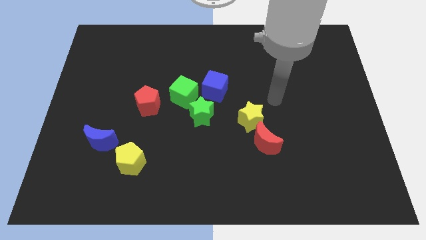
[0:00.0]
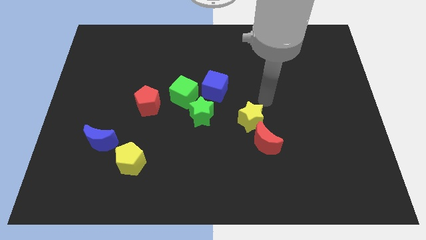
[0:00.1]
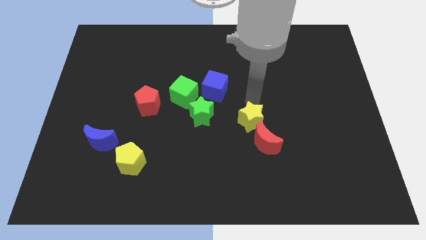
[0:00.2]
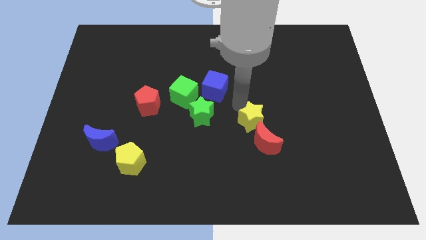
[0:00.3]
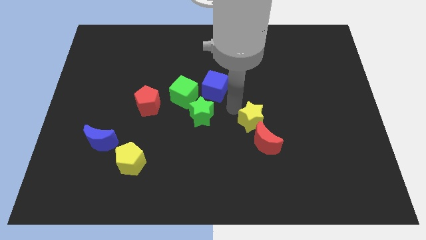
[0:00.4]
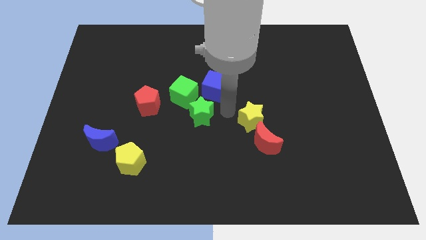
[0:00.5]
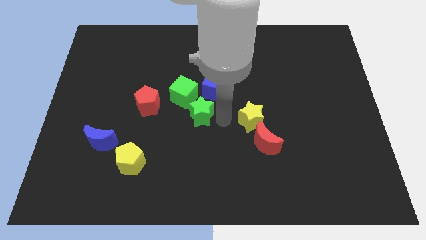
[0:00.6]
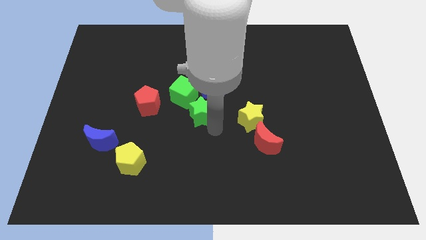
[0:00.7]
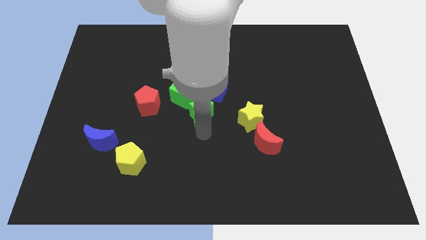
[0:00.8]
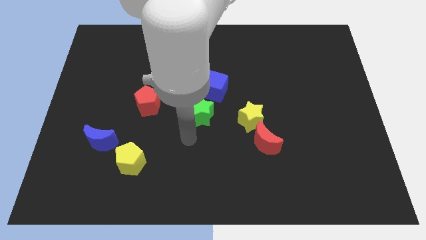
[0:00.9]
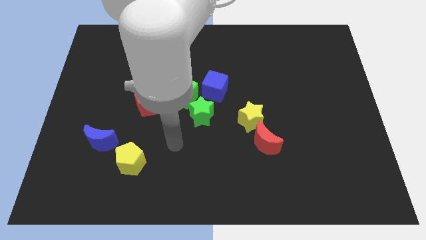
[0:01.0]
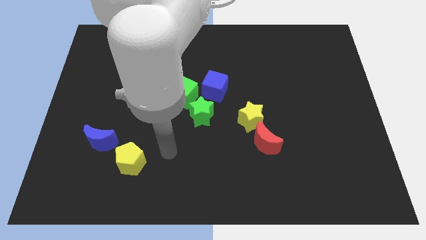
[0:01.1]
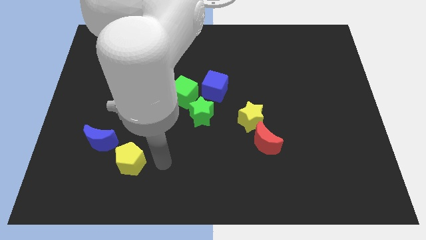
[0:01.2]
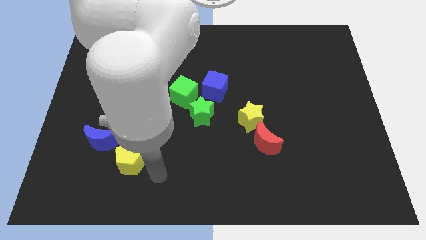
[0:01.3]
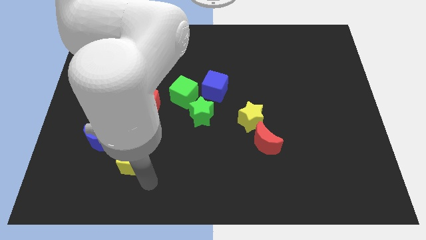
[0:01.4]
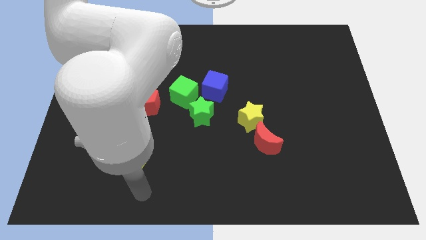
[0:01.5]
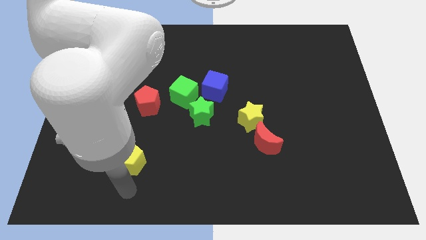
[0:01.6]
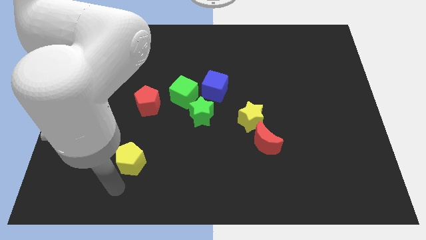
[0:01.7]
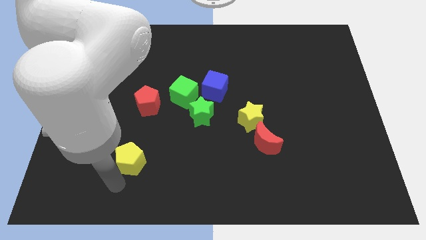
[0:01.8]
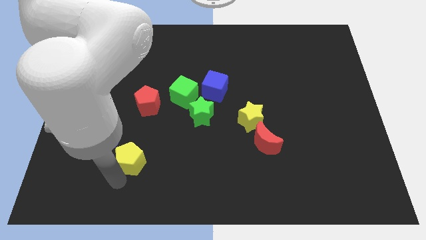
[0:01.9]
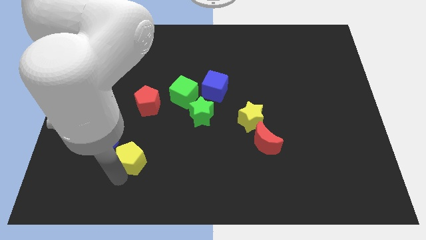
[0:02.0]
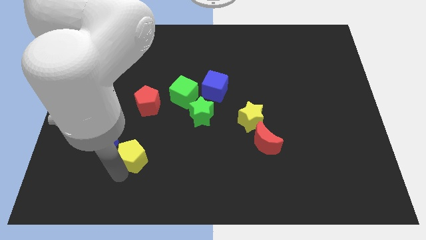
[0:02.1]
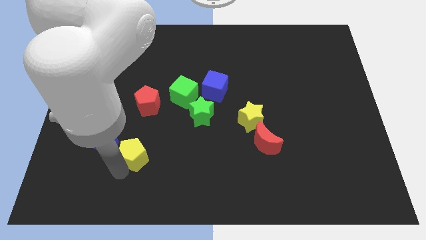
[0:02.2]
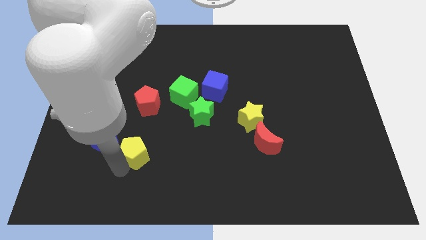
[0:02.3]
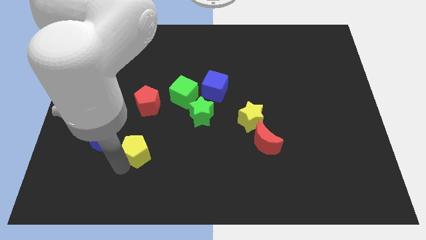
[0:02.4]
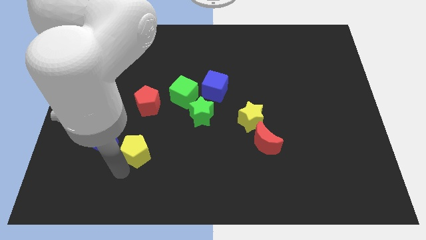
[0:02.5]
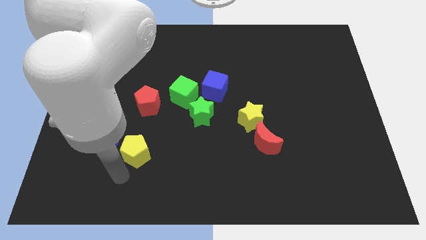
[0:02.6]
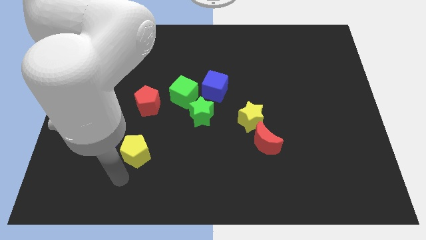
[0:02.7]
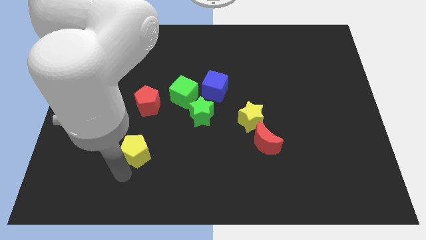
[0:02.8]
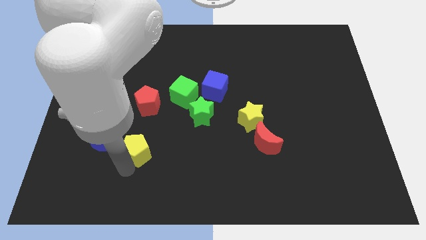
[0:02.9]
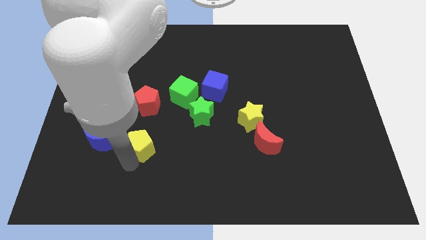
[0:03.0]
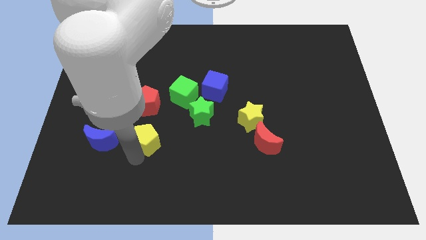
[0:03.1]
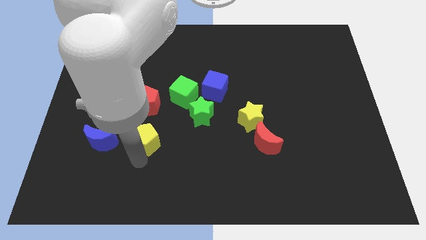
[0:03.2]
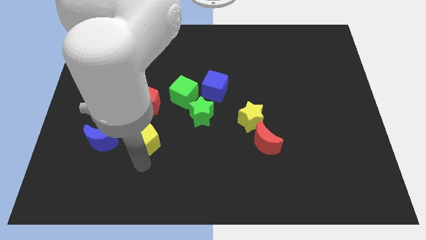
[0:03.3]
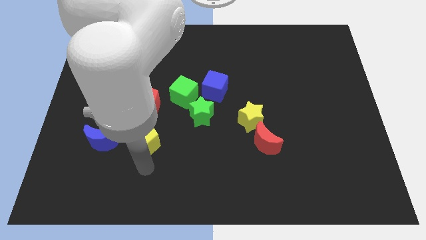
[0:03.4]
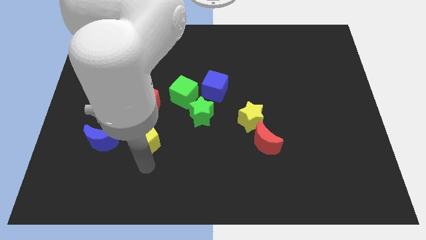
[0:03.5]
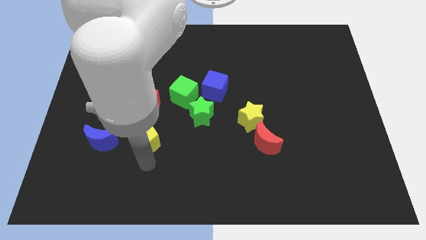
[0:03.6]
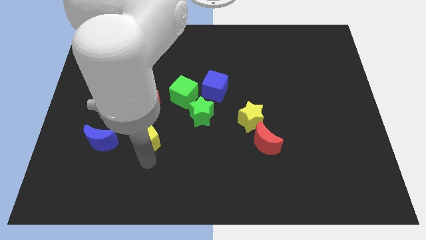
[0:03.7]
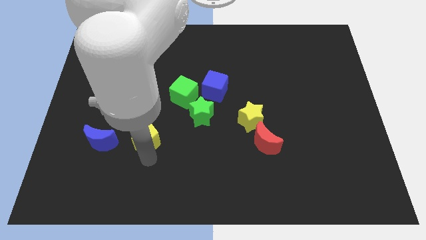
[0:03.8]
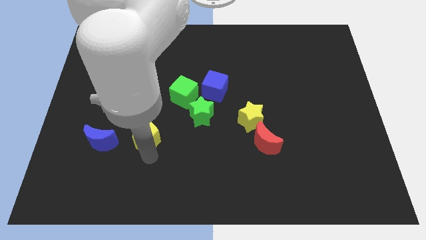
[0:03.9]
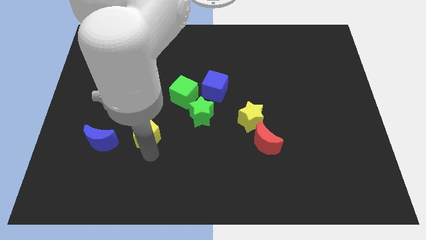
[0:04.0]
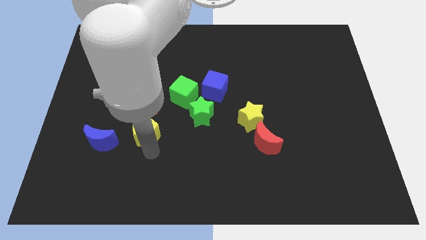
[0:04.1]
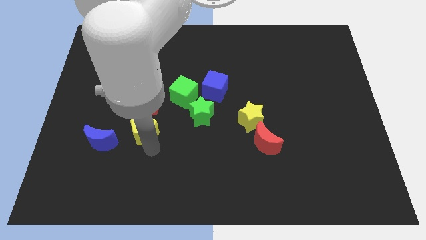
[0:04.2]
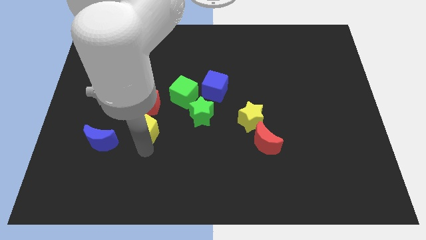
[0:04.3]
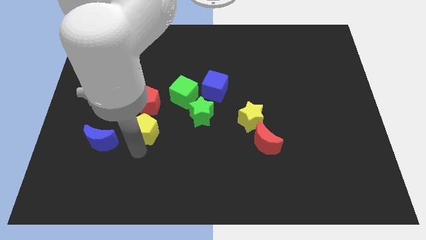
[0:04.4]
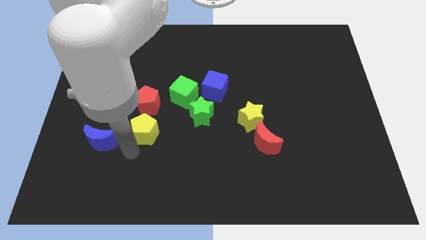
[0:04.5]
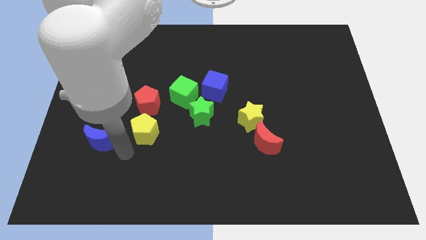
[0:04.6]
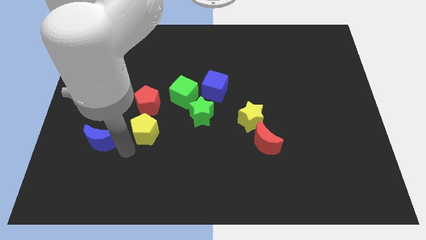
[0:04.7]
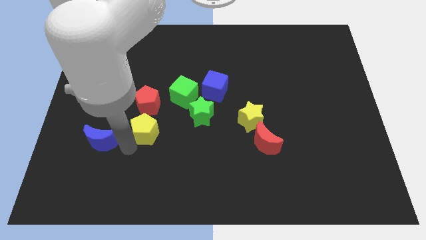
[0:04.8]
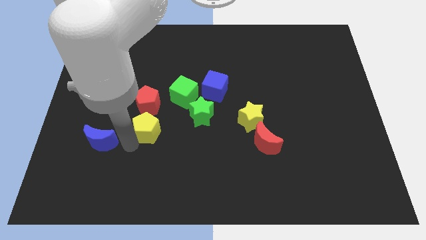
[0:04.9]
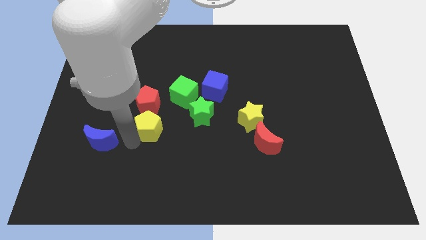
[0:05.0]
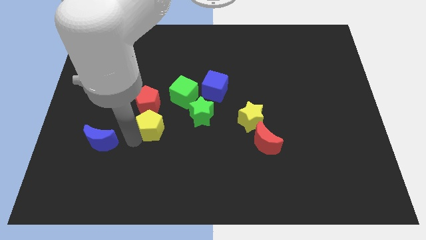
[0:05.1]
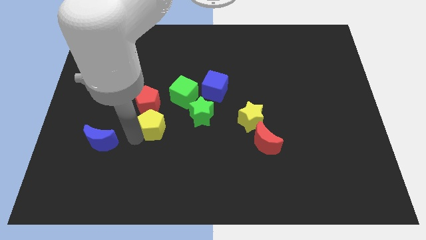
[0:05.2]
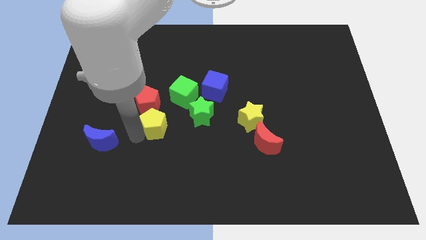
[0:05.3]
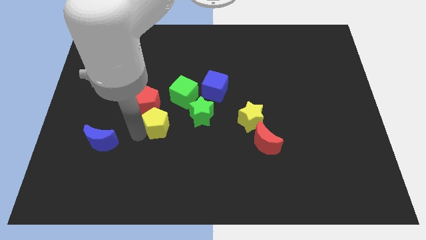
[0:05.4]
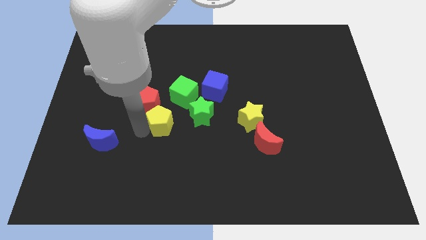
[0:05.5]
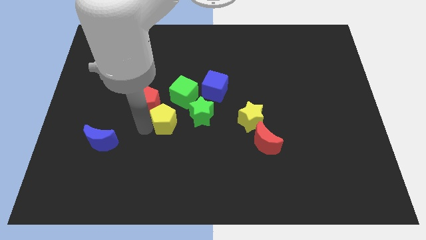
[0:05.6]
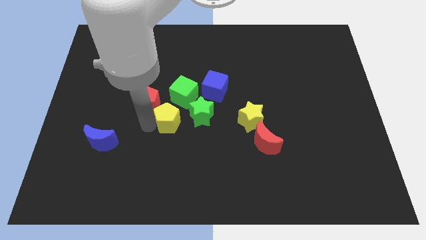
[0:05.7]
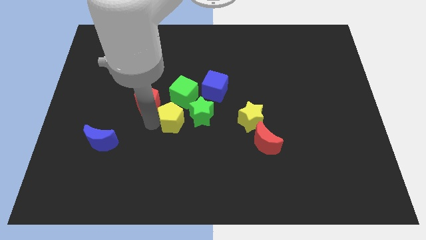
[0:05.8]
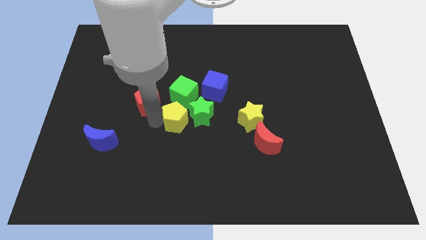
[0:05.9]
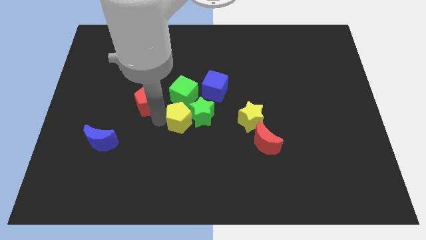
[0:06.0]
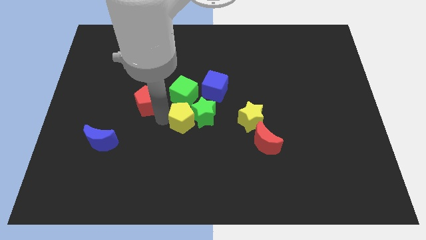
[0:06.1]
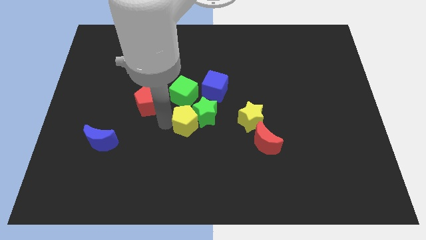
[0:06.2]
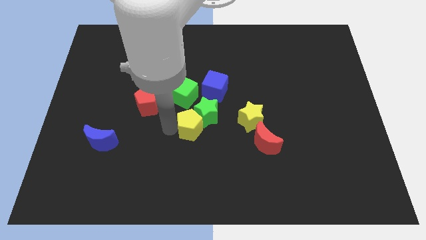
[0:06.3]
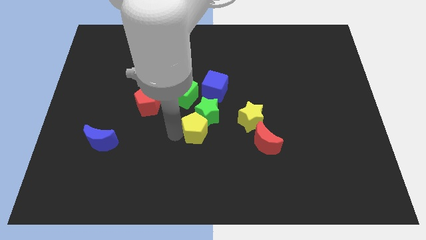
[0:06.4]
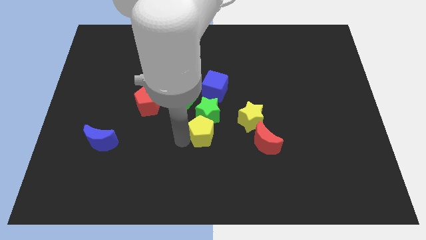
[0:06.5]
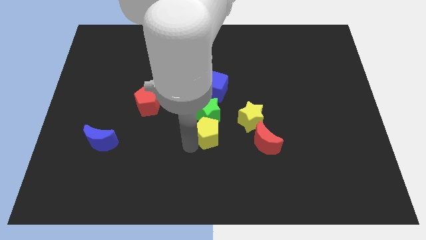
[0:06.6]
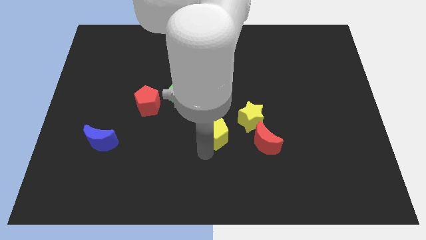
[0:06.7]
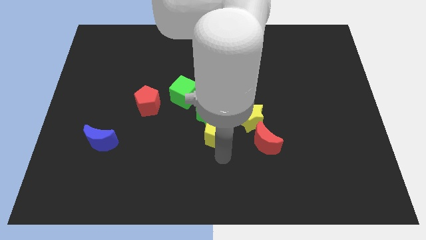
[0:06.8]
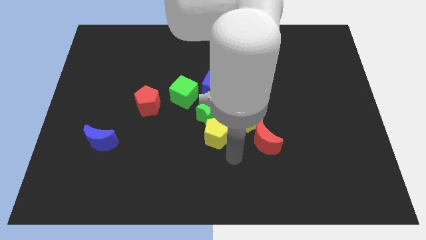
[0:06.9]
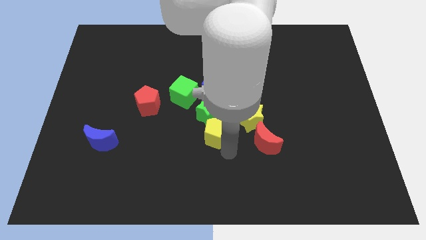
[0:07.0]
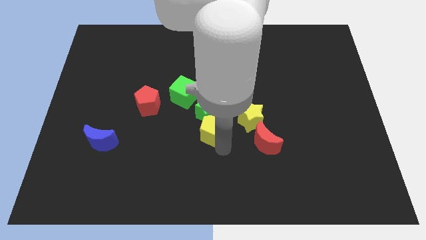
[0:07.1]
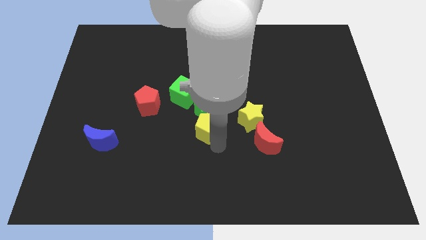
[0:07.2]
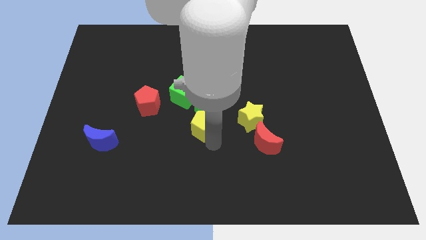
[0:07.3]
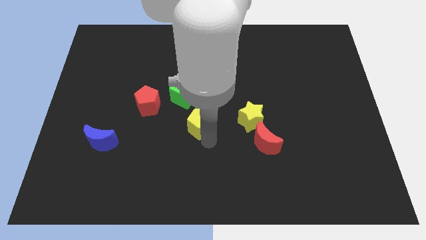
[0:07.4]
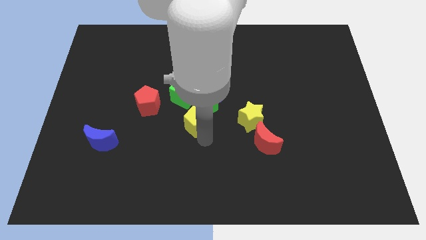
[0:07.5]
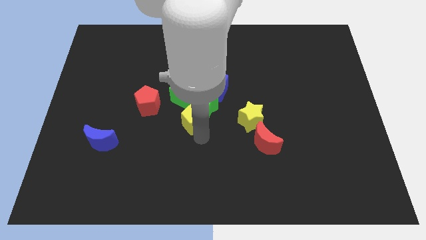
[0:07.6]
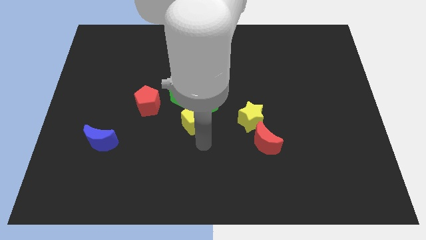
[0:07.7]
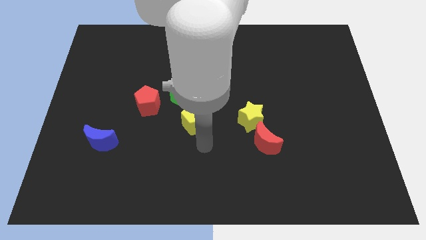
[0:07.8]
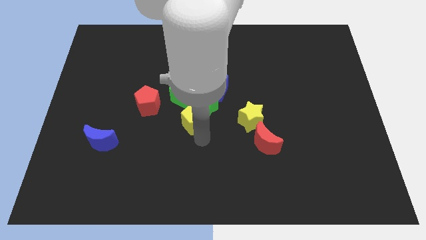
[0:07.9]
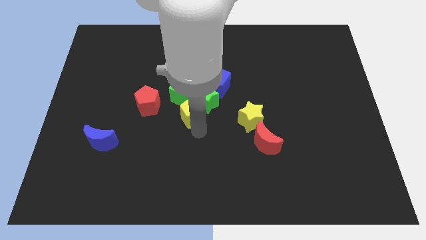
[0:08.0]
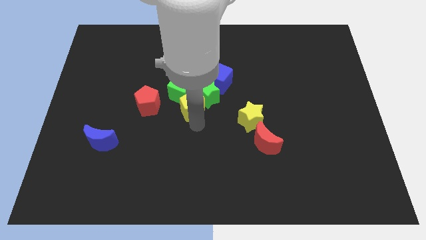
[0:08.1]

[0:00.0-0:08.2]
put the yellow pentagon towards the green cube
